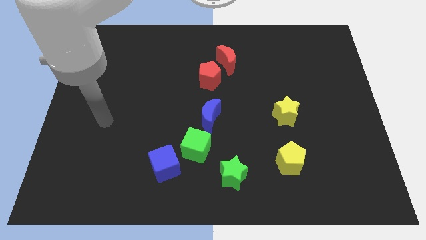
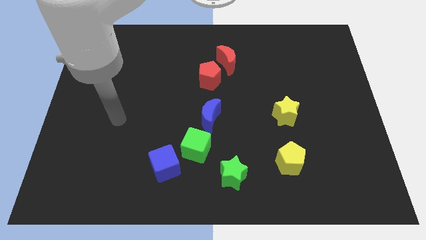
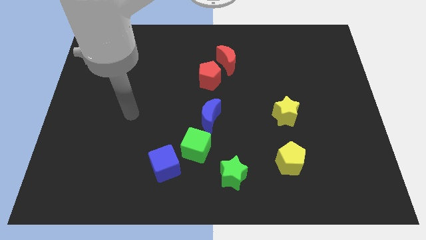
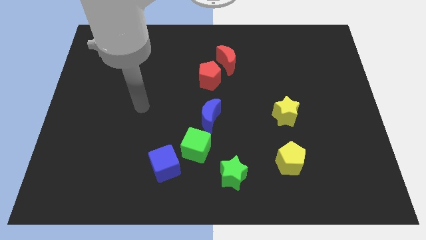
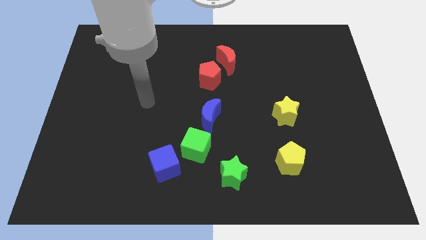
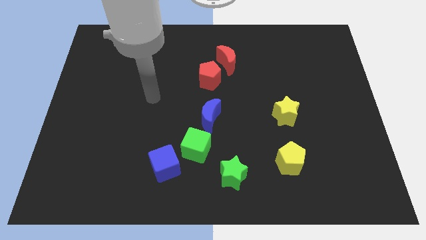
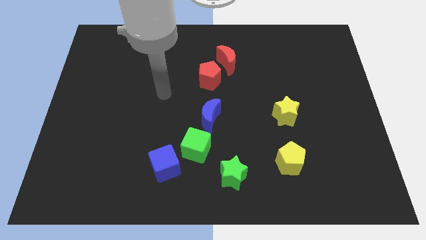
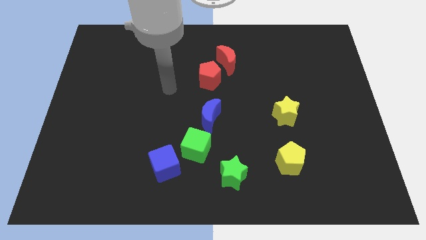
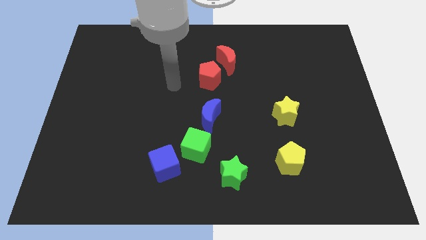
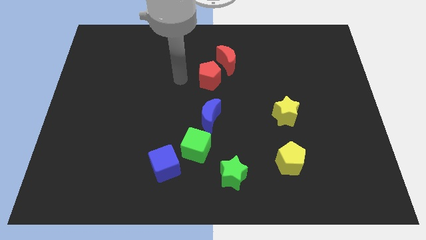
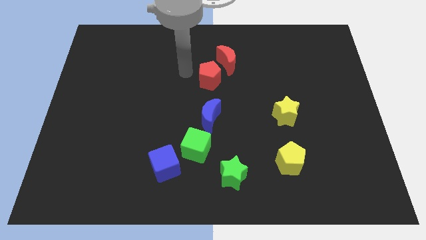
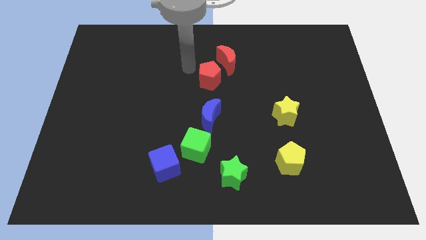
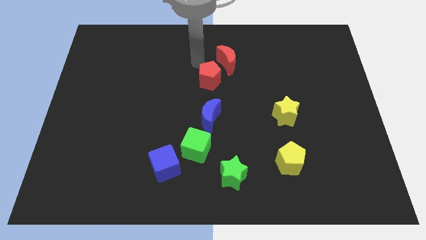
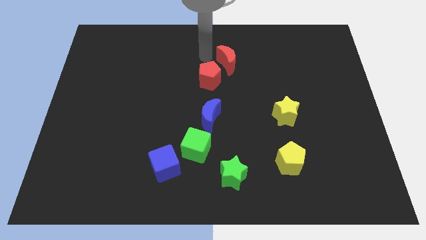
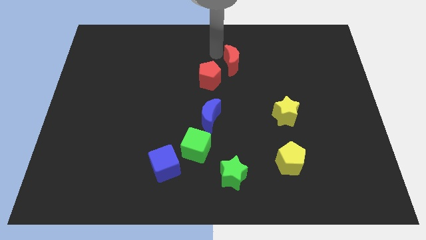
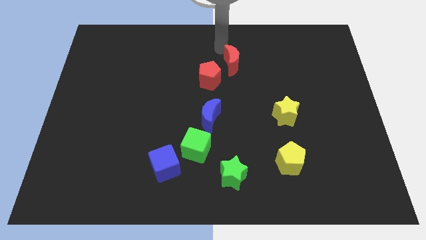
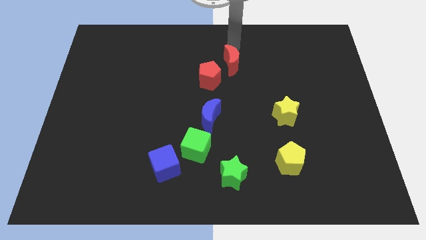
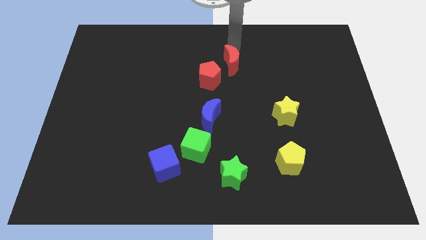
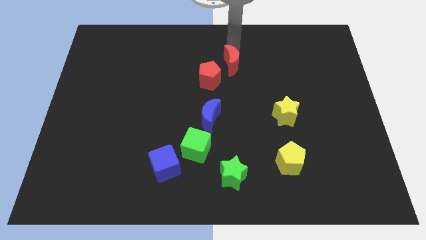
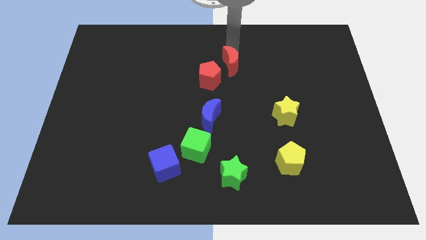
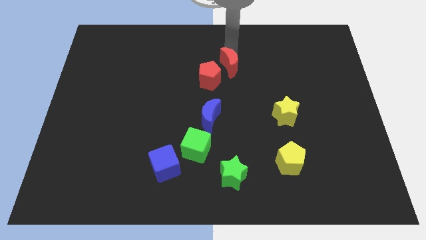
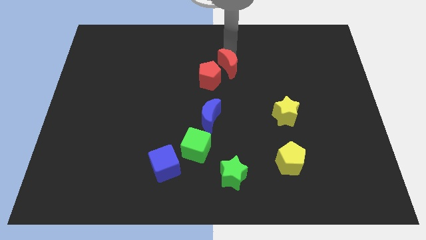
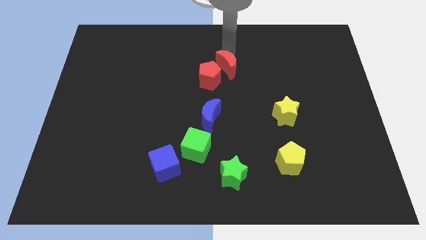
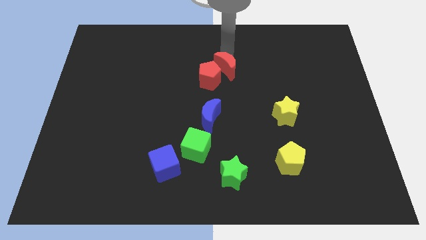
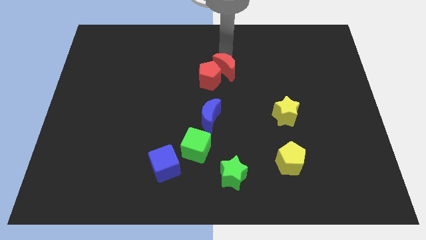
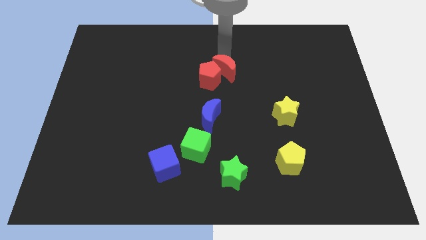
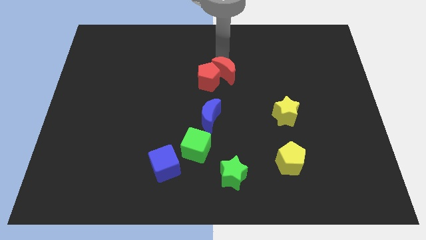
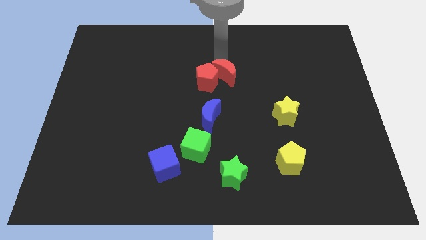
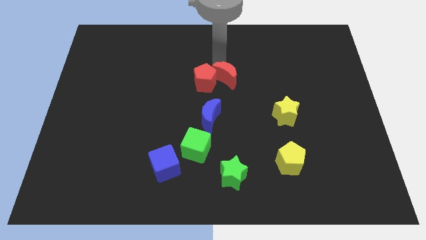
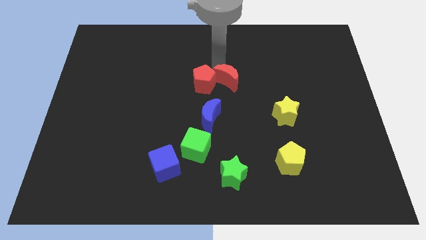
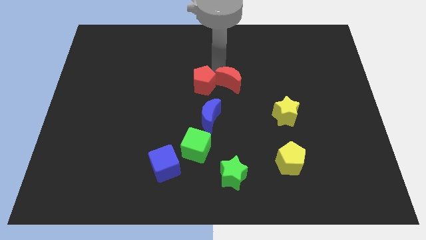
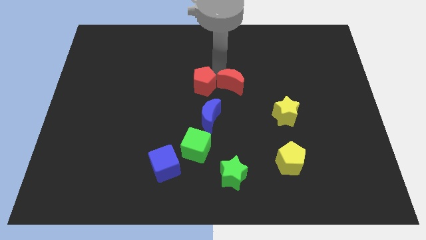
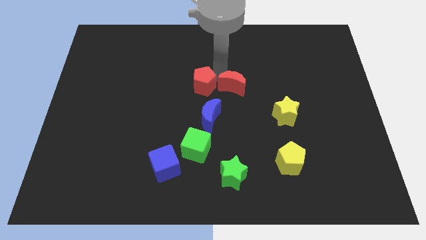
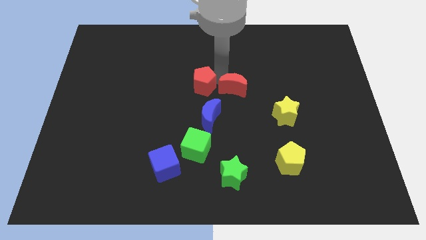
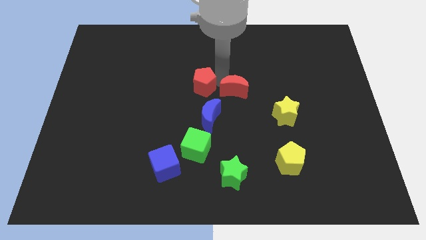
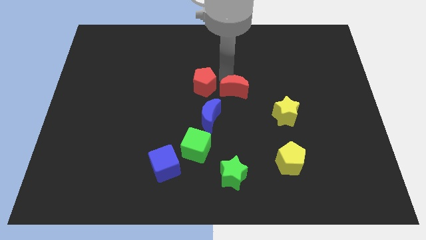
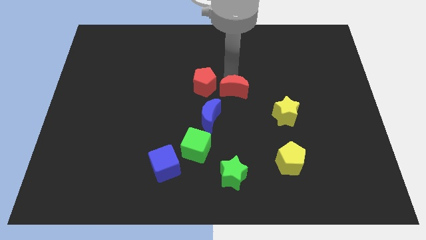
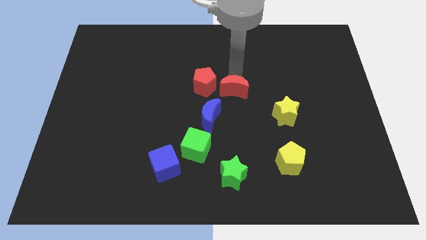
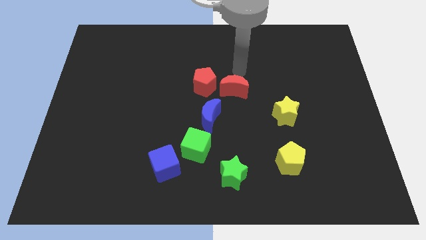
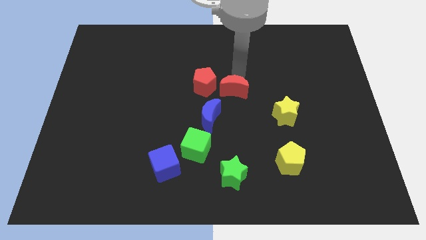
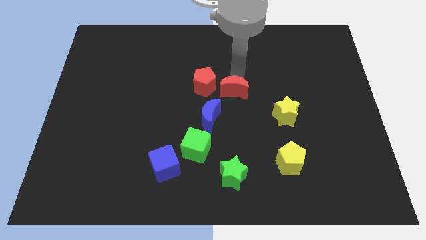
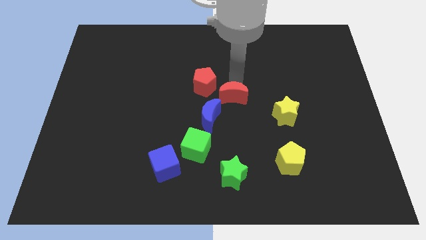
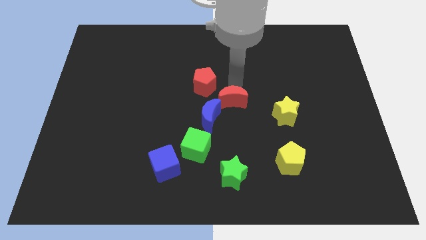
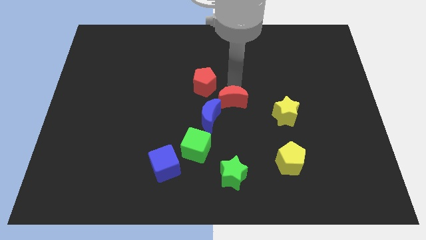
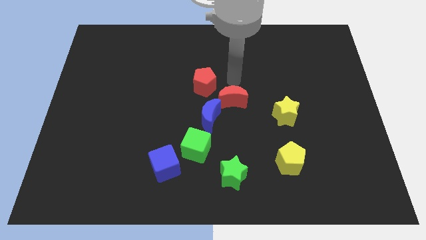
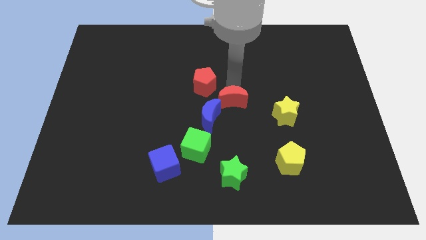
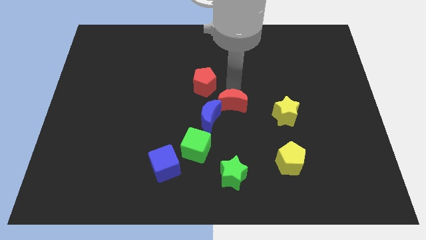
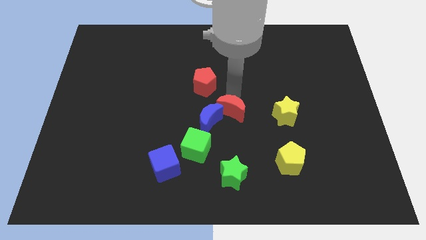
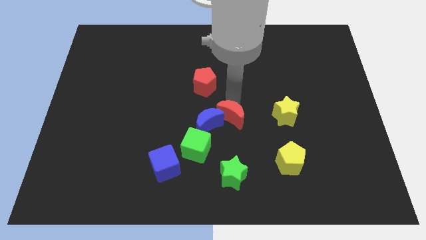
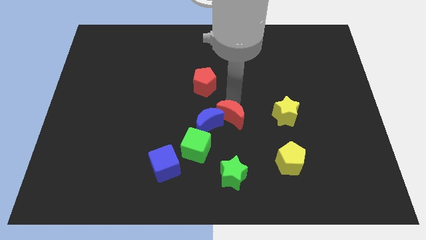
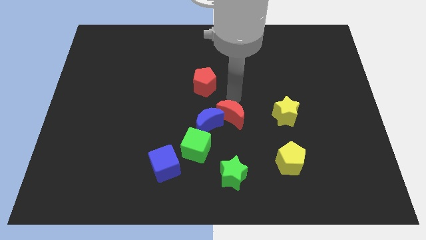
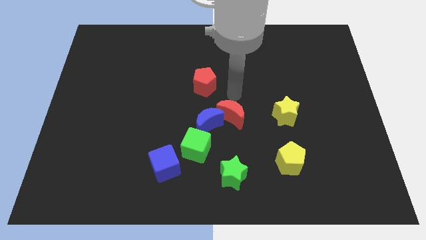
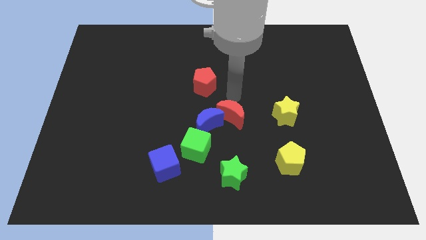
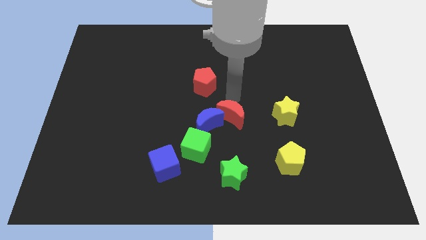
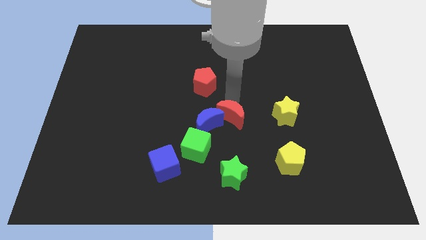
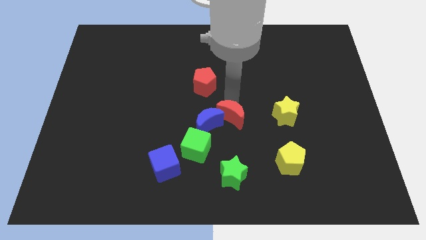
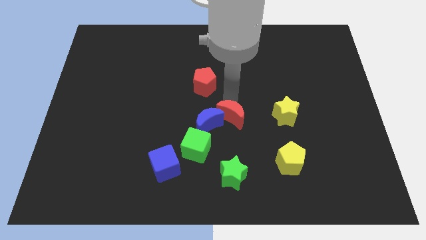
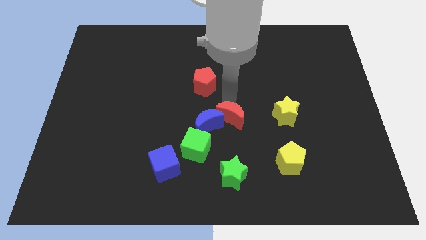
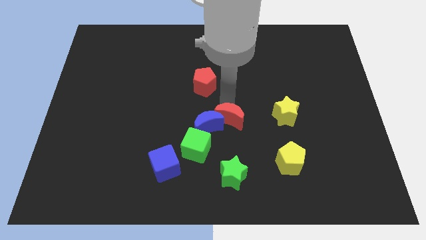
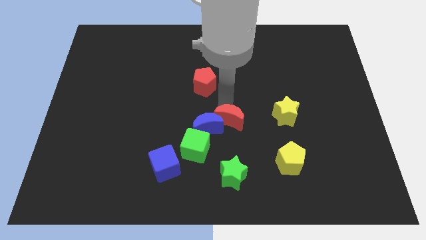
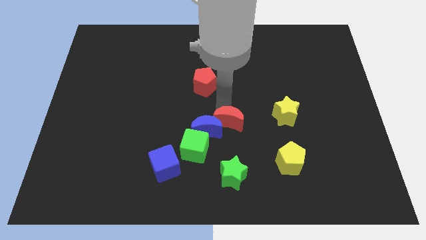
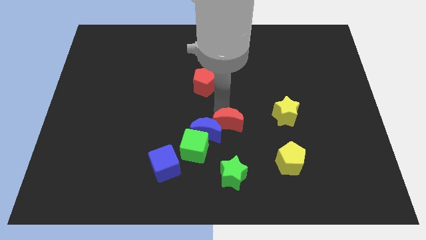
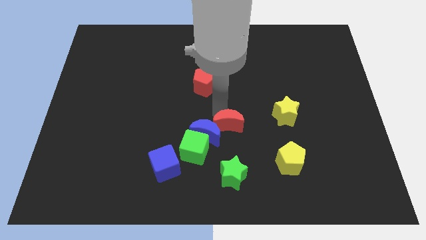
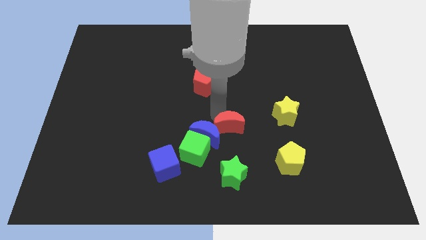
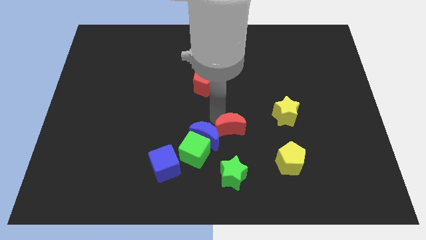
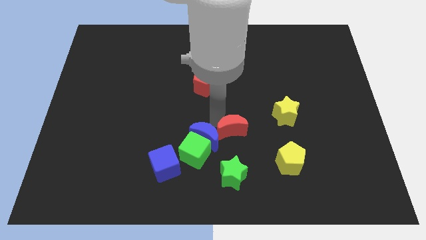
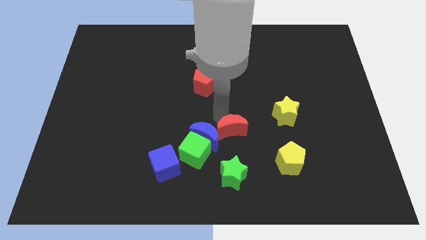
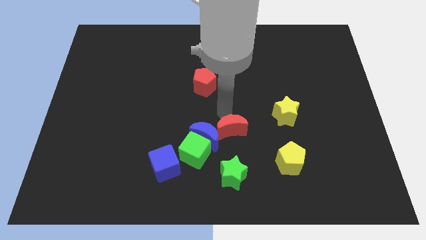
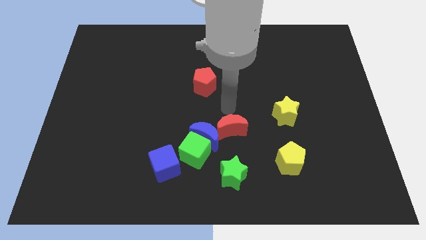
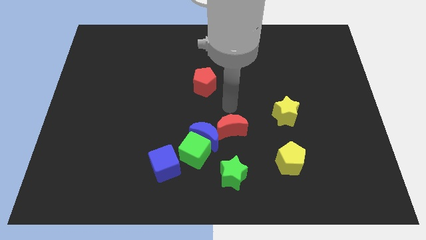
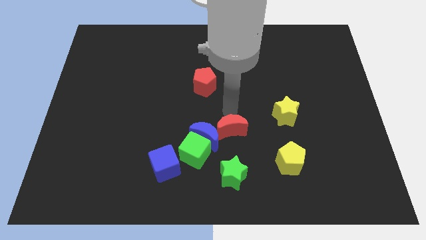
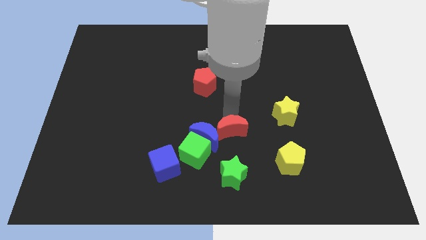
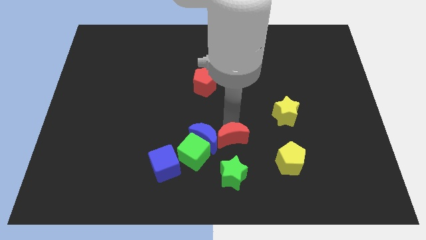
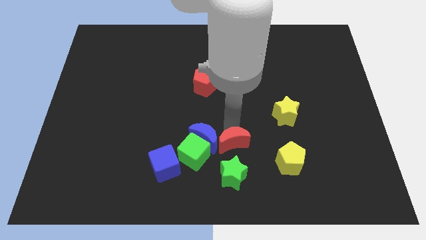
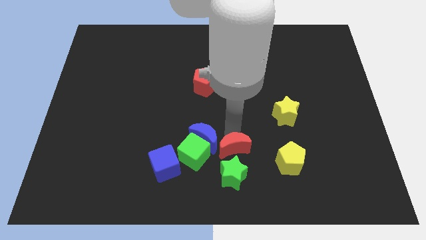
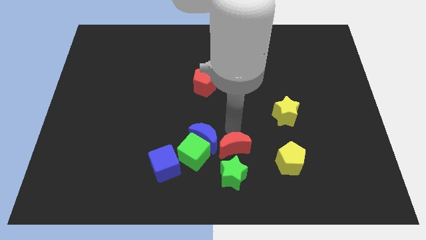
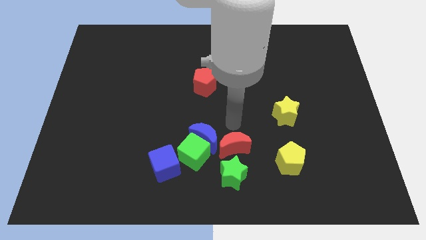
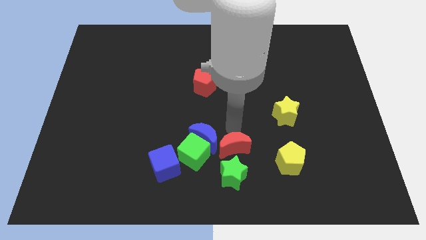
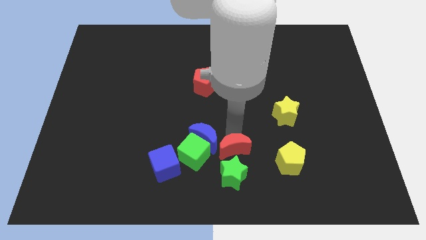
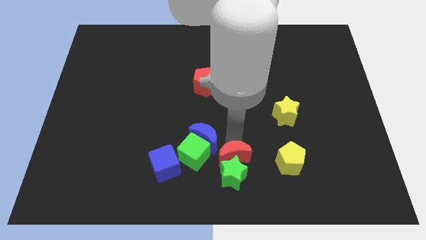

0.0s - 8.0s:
put the red moon to the green star
